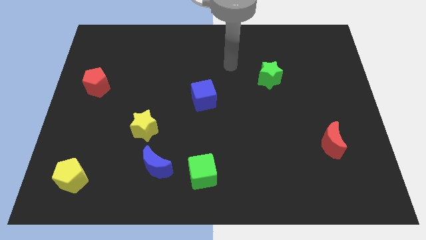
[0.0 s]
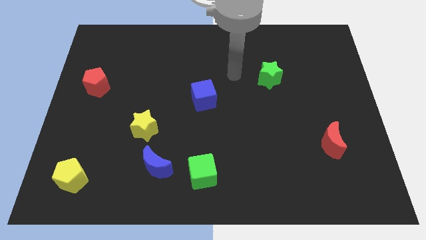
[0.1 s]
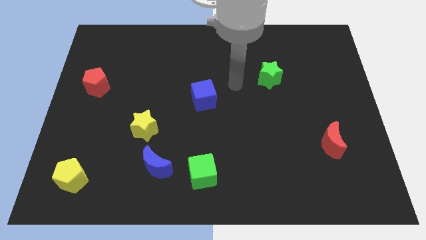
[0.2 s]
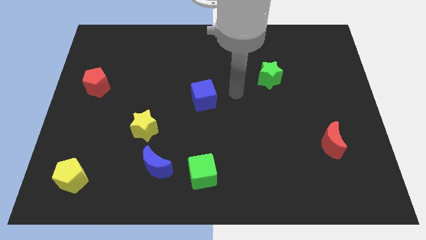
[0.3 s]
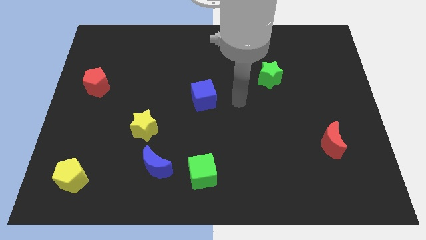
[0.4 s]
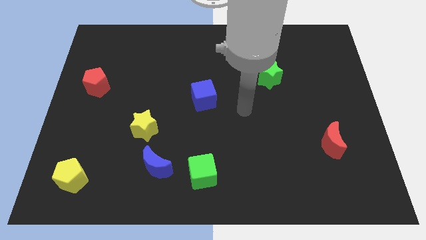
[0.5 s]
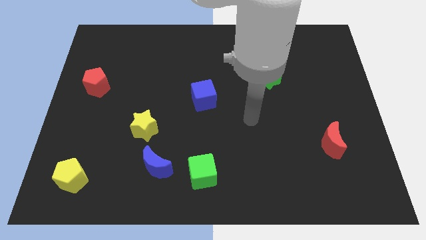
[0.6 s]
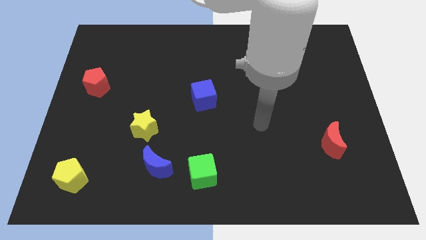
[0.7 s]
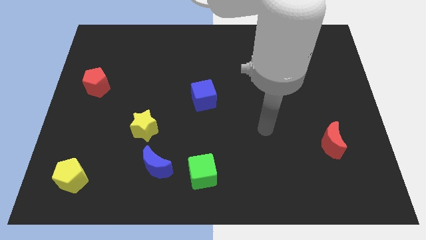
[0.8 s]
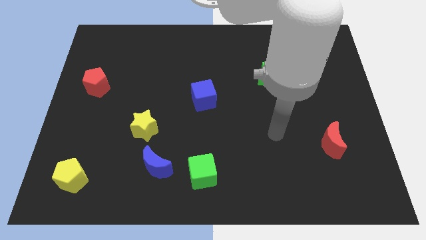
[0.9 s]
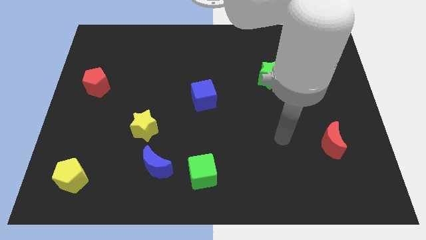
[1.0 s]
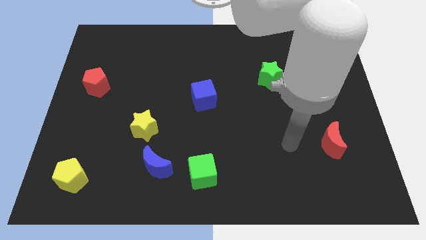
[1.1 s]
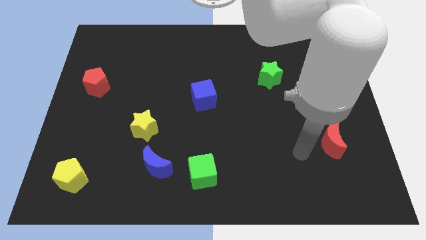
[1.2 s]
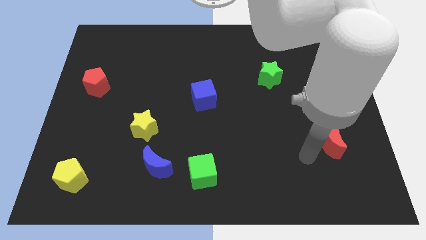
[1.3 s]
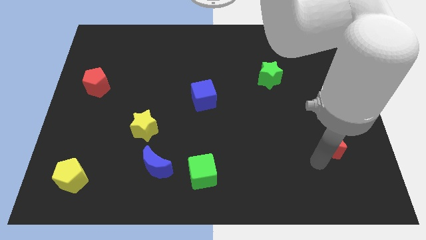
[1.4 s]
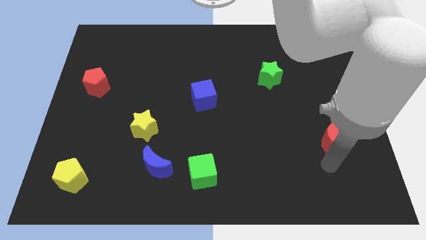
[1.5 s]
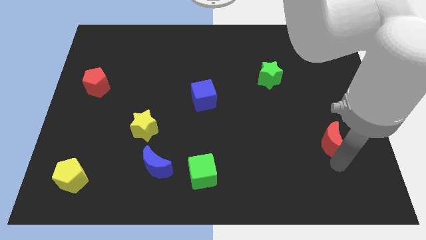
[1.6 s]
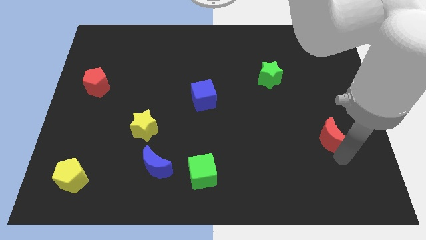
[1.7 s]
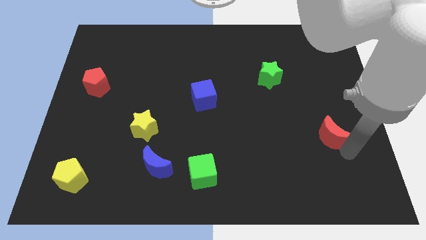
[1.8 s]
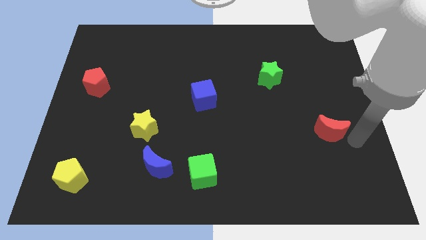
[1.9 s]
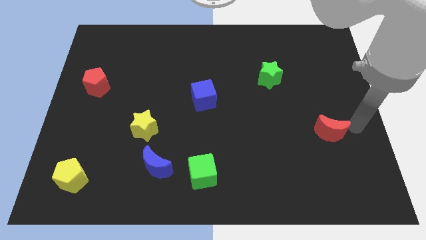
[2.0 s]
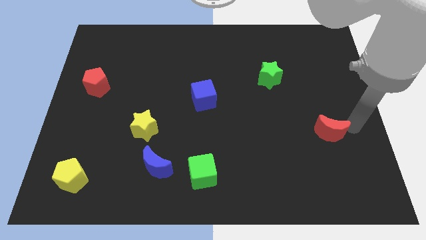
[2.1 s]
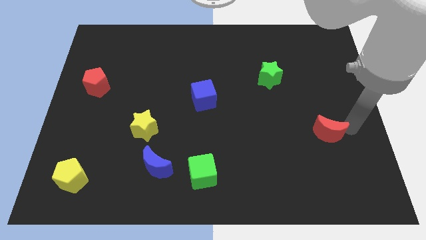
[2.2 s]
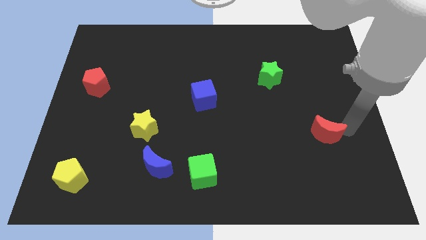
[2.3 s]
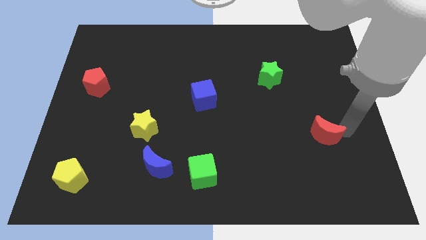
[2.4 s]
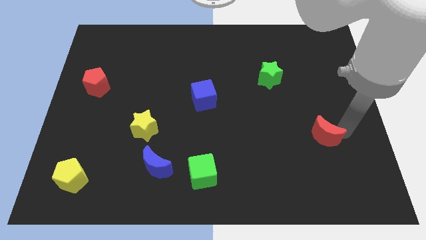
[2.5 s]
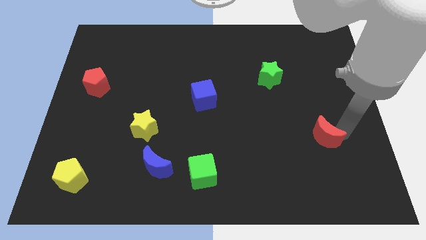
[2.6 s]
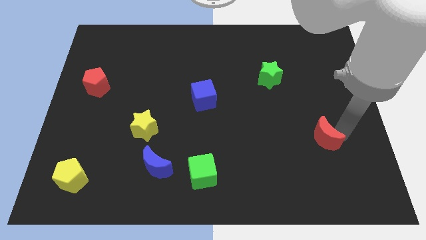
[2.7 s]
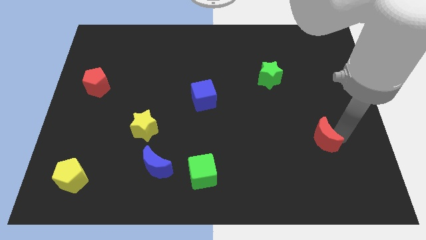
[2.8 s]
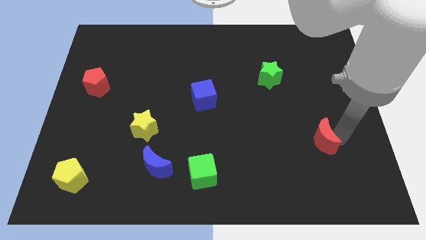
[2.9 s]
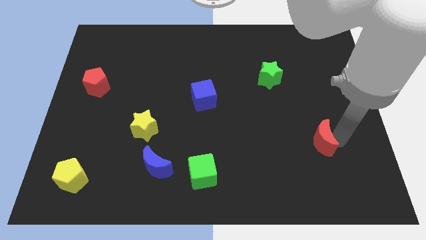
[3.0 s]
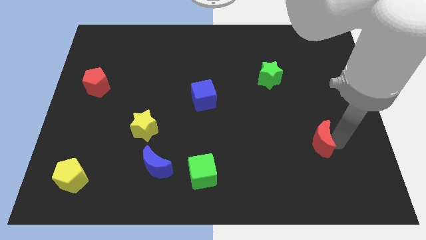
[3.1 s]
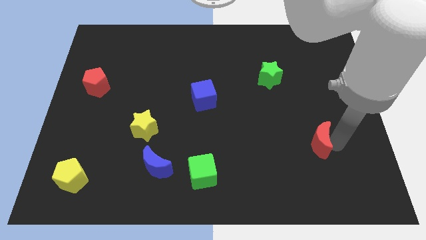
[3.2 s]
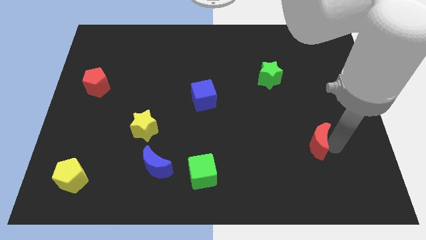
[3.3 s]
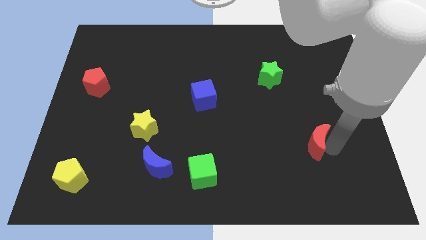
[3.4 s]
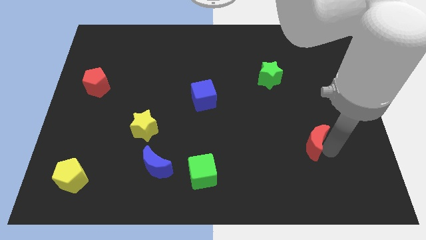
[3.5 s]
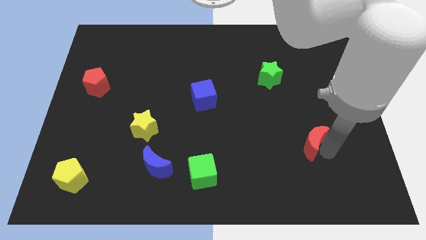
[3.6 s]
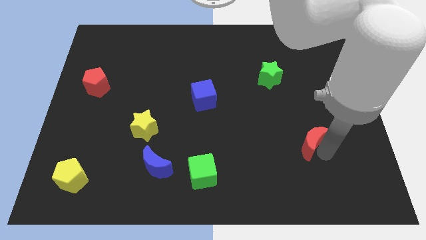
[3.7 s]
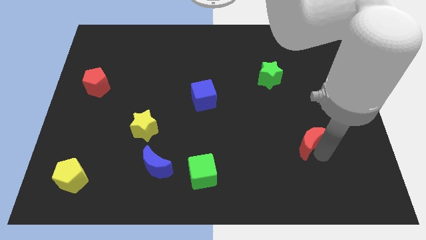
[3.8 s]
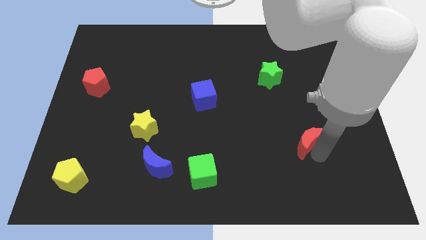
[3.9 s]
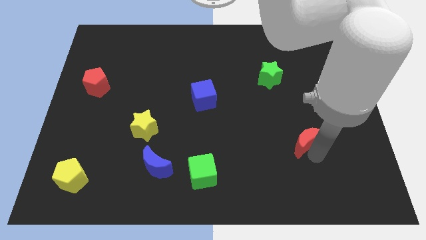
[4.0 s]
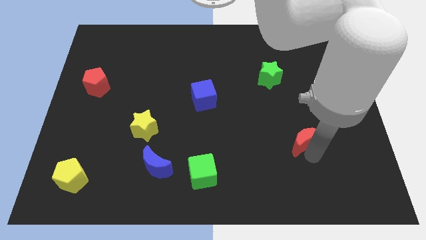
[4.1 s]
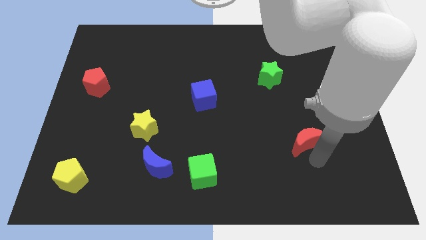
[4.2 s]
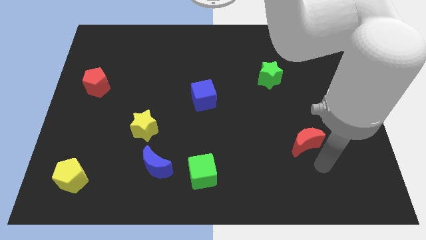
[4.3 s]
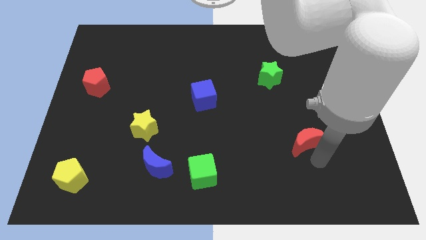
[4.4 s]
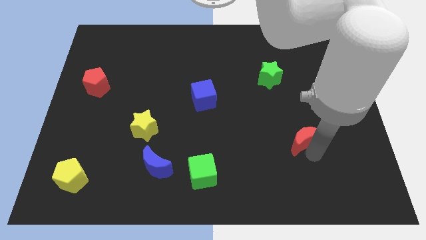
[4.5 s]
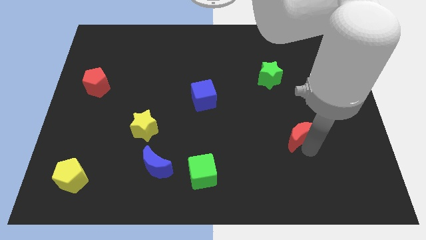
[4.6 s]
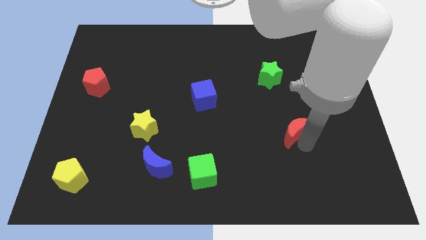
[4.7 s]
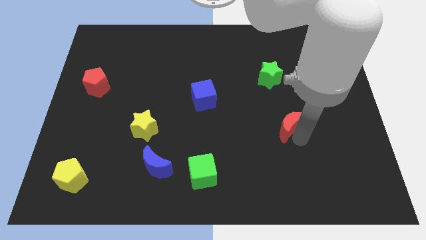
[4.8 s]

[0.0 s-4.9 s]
move the red moon to the bottom of the green star

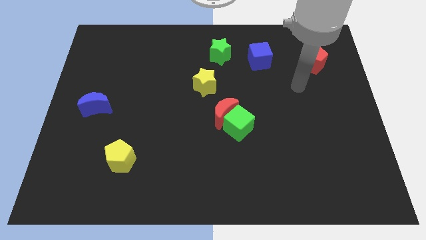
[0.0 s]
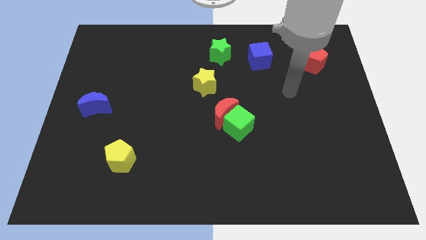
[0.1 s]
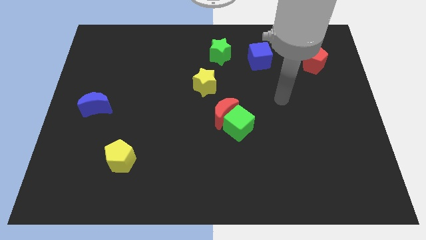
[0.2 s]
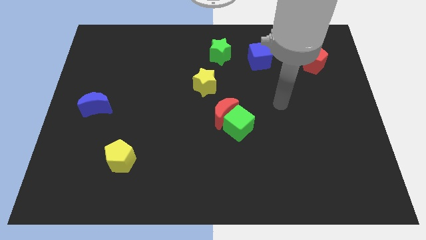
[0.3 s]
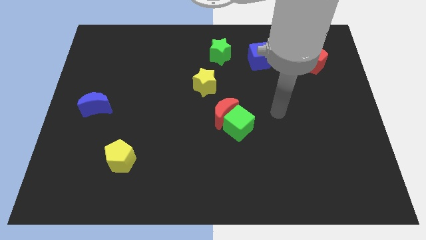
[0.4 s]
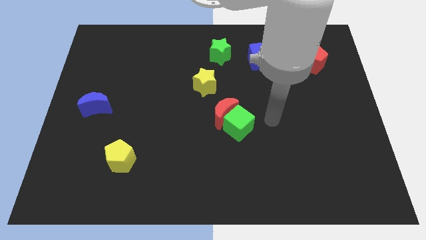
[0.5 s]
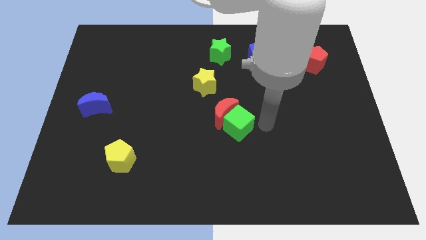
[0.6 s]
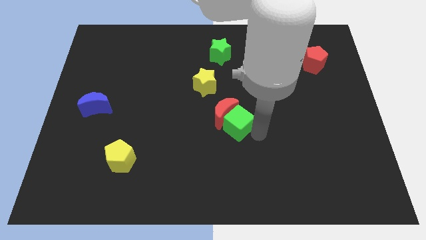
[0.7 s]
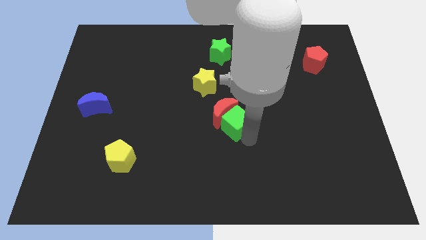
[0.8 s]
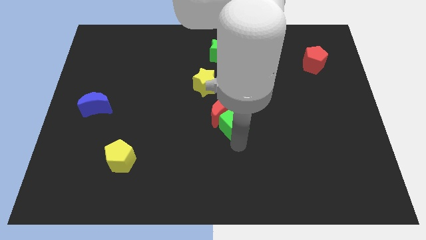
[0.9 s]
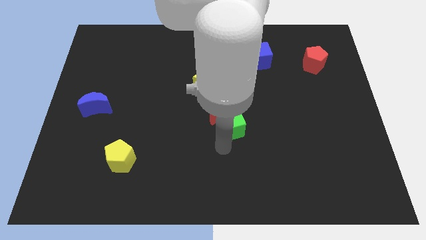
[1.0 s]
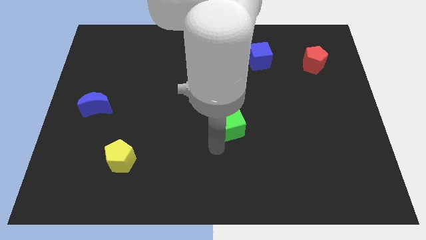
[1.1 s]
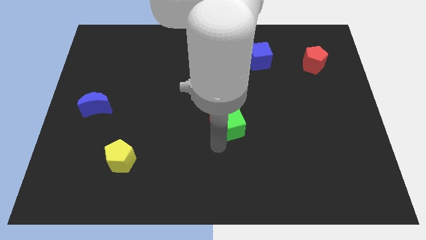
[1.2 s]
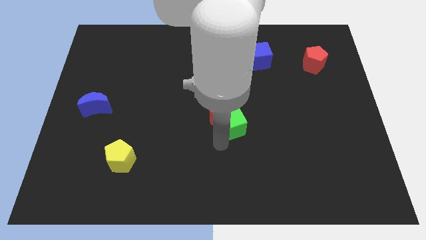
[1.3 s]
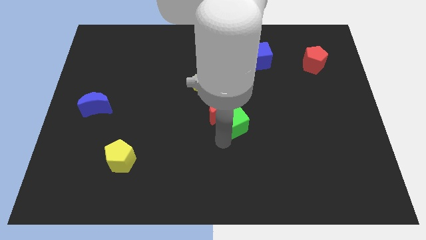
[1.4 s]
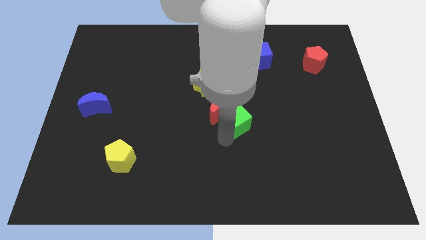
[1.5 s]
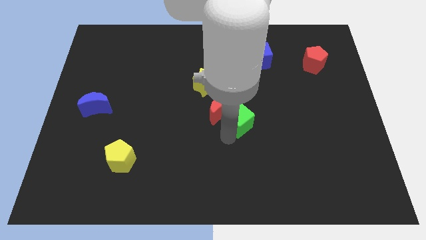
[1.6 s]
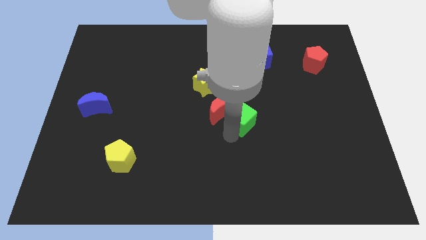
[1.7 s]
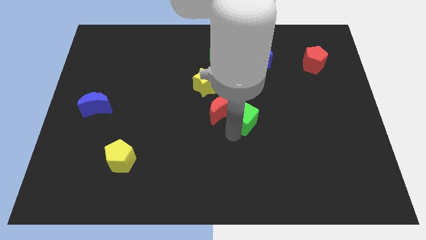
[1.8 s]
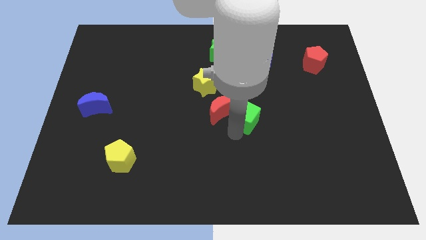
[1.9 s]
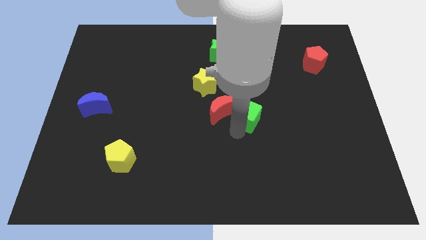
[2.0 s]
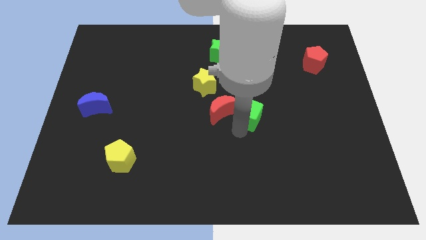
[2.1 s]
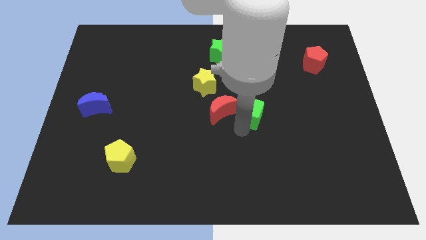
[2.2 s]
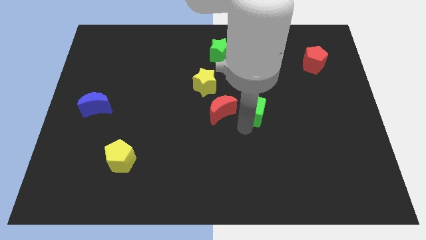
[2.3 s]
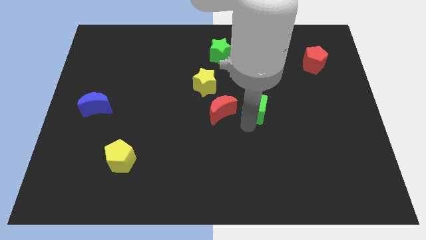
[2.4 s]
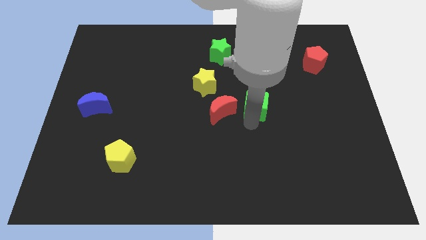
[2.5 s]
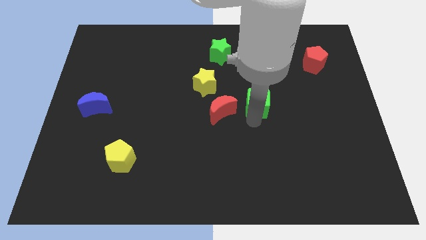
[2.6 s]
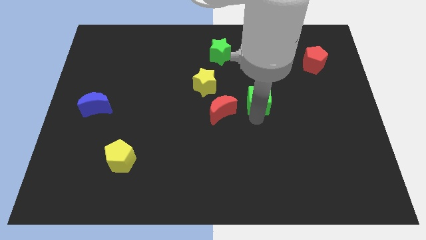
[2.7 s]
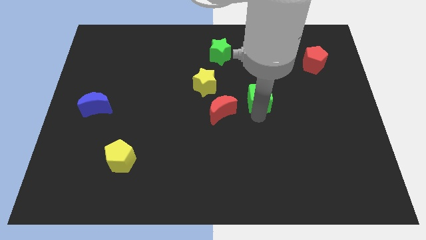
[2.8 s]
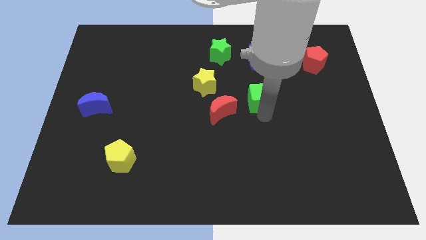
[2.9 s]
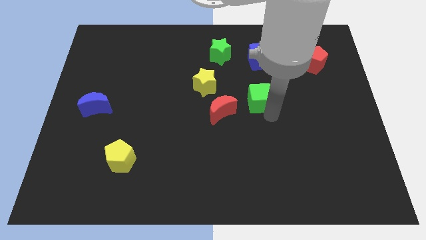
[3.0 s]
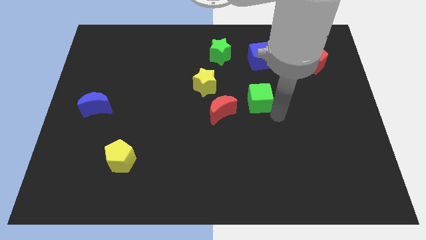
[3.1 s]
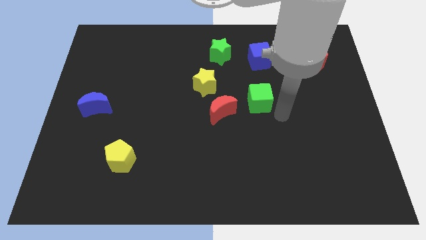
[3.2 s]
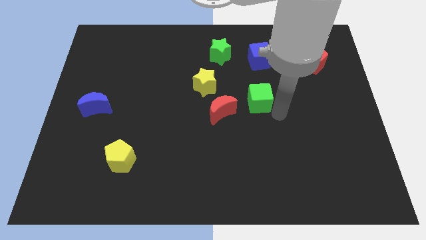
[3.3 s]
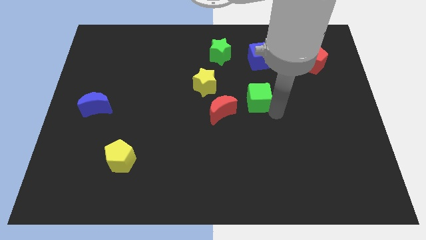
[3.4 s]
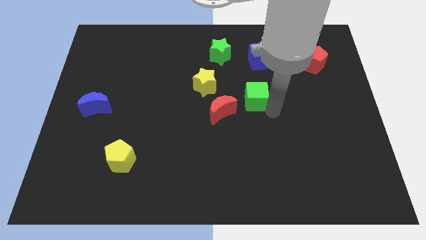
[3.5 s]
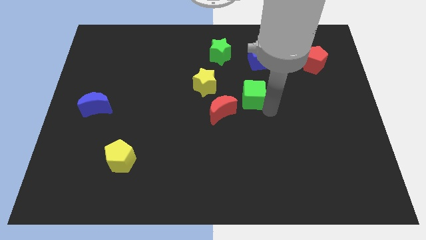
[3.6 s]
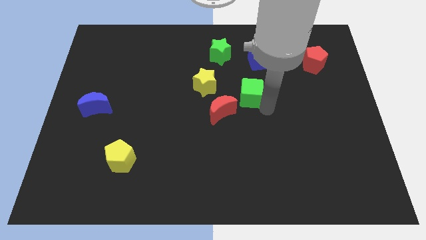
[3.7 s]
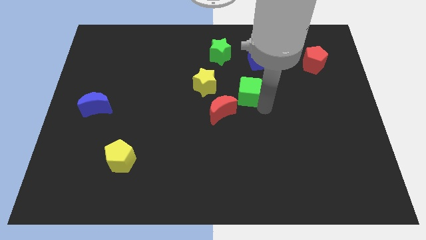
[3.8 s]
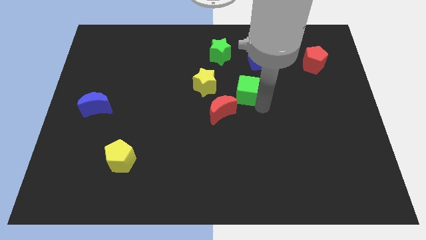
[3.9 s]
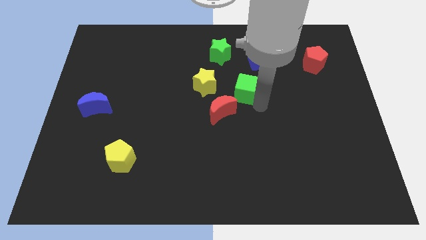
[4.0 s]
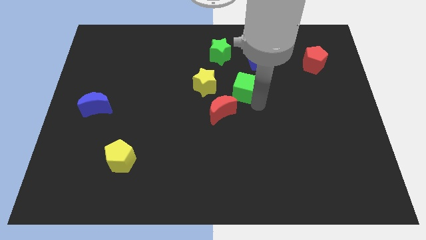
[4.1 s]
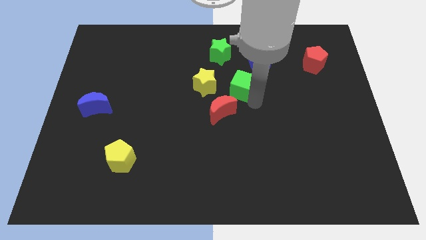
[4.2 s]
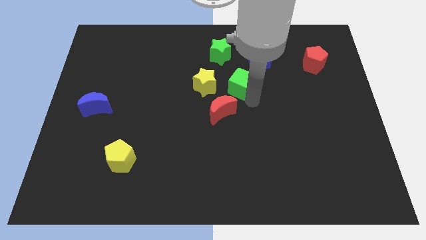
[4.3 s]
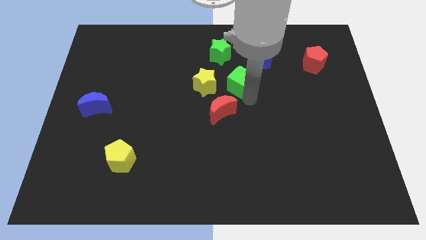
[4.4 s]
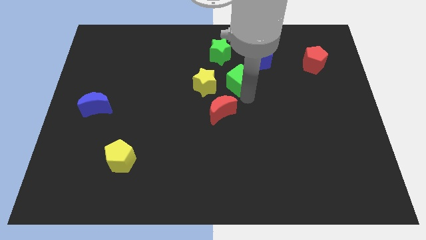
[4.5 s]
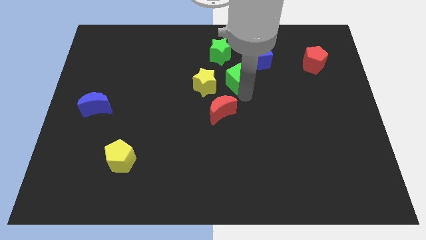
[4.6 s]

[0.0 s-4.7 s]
put the green cube to the top right of the yellow star
